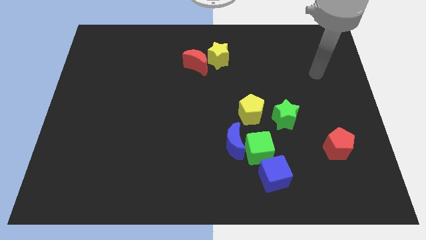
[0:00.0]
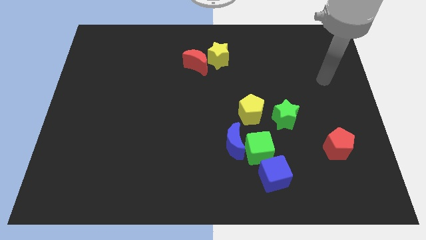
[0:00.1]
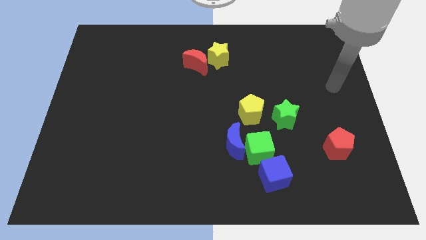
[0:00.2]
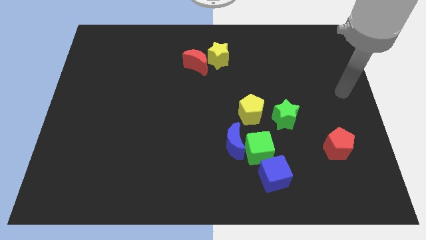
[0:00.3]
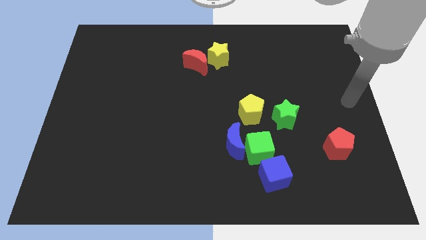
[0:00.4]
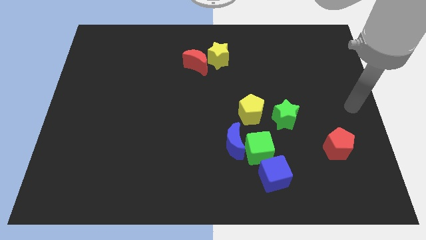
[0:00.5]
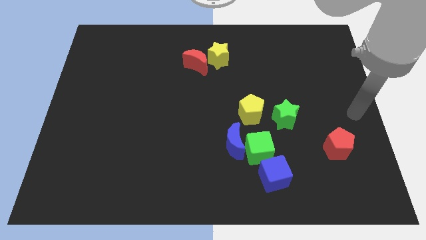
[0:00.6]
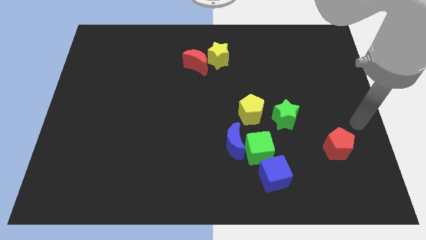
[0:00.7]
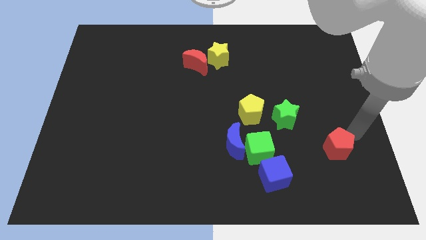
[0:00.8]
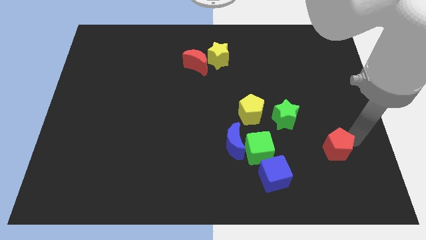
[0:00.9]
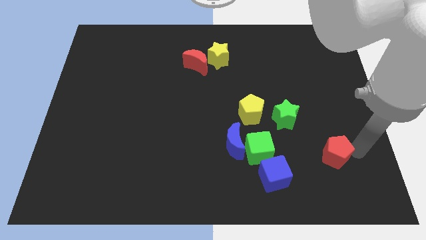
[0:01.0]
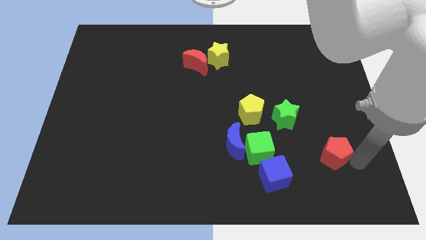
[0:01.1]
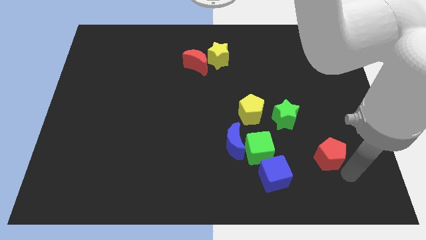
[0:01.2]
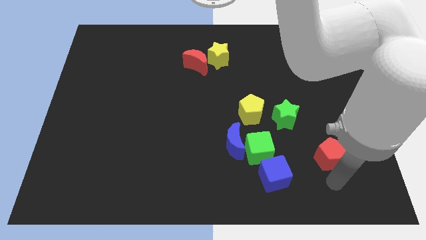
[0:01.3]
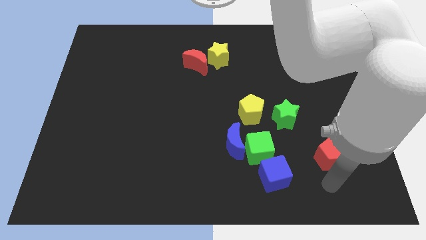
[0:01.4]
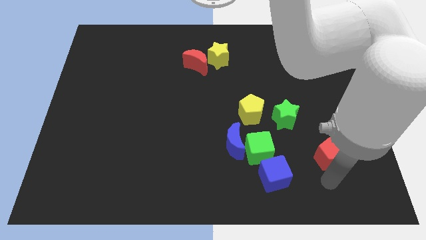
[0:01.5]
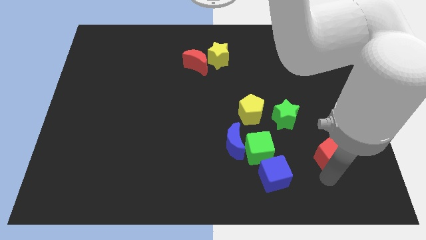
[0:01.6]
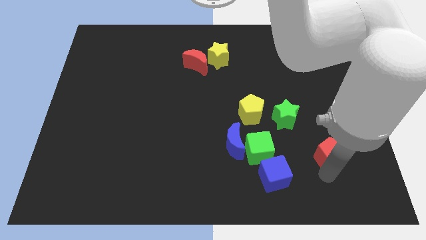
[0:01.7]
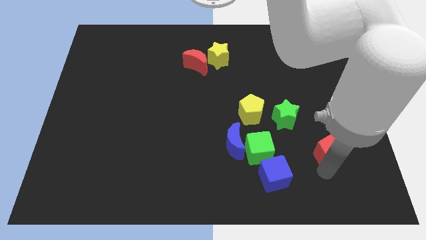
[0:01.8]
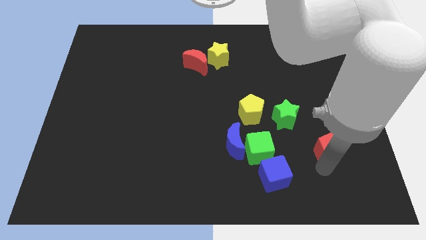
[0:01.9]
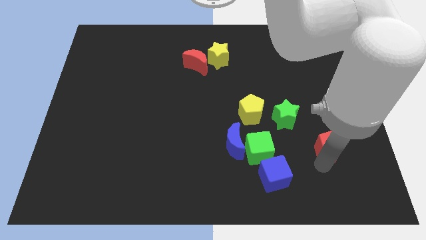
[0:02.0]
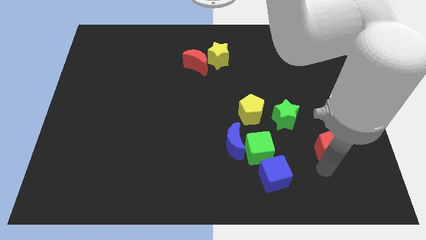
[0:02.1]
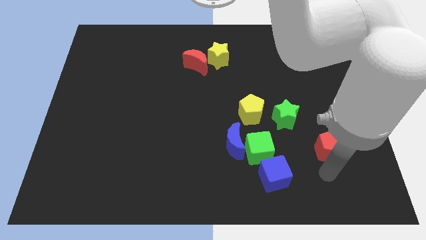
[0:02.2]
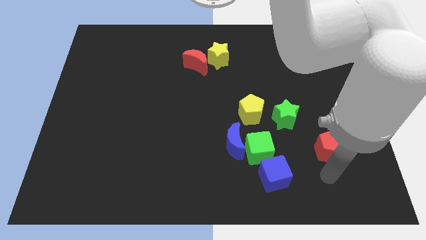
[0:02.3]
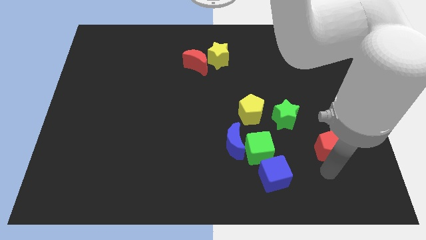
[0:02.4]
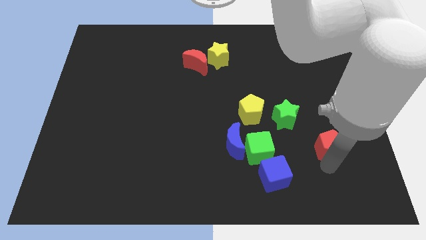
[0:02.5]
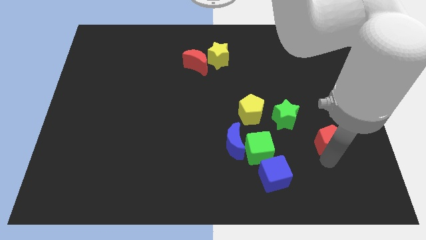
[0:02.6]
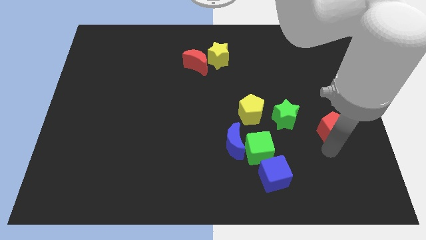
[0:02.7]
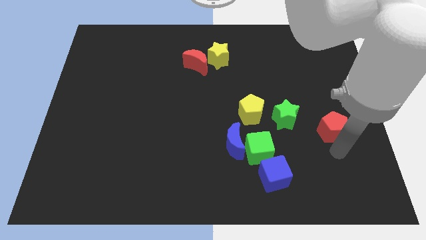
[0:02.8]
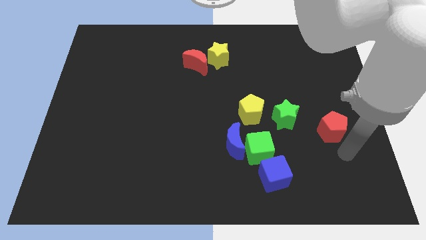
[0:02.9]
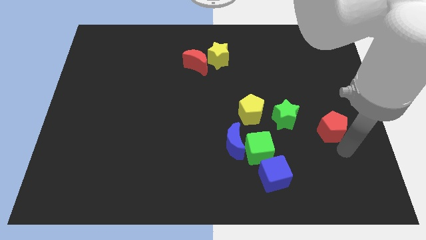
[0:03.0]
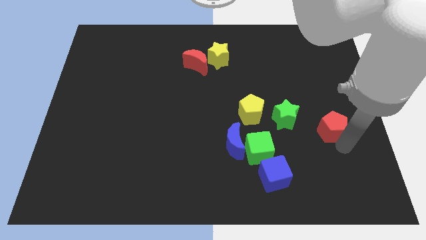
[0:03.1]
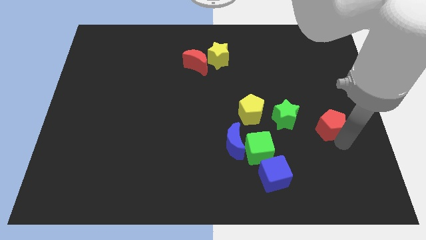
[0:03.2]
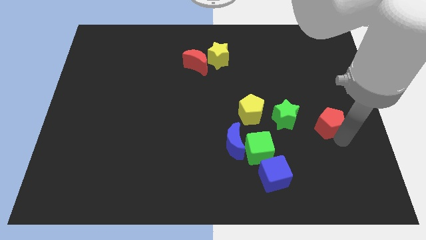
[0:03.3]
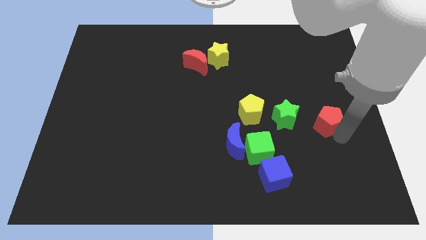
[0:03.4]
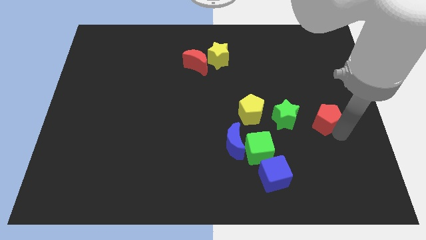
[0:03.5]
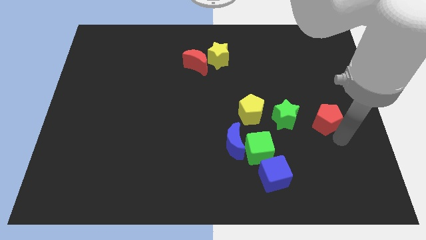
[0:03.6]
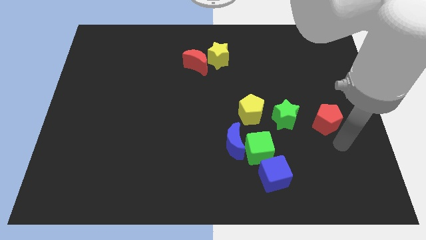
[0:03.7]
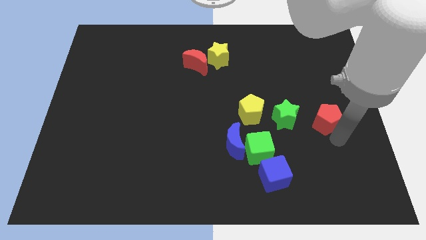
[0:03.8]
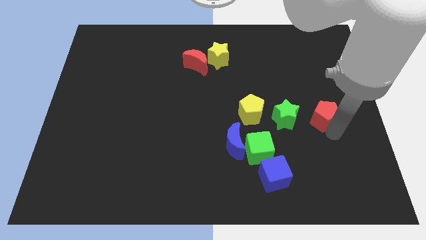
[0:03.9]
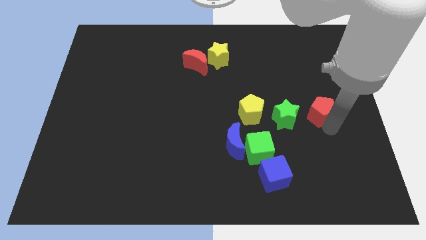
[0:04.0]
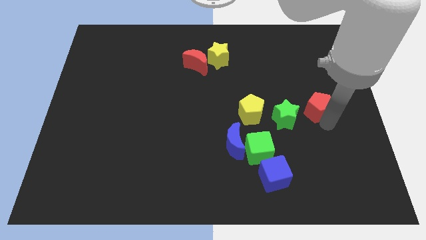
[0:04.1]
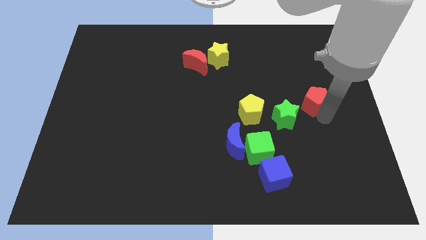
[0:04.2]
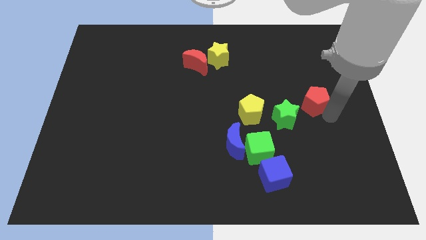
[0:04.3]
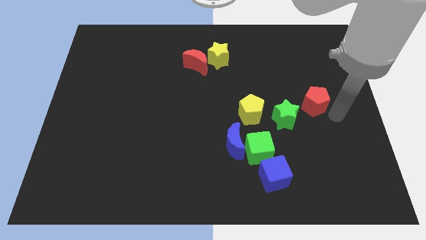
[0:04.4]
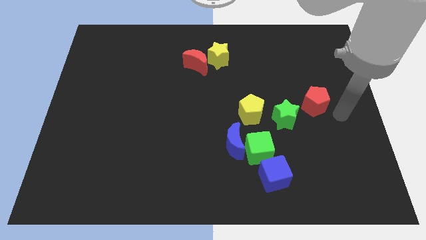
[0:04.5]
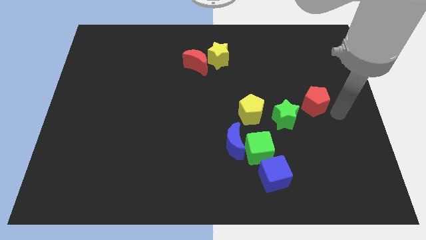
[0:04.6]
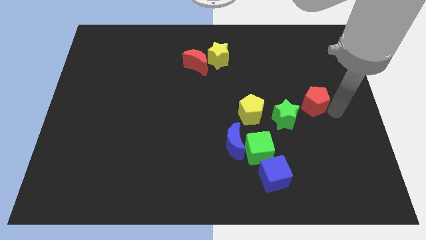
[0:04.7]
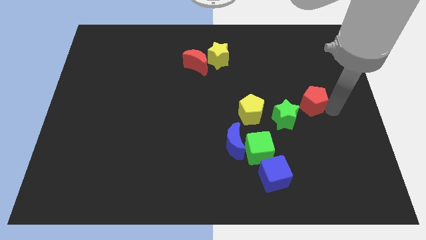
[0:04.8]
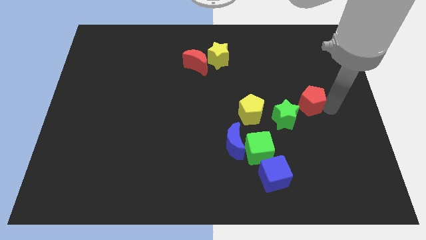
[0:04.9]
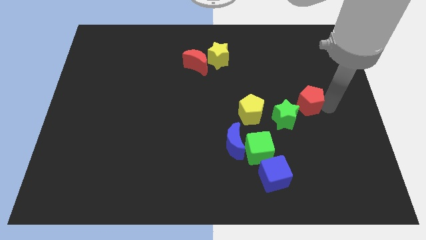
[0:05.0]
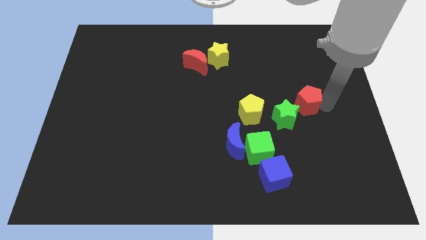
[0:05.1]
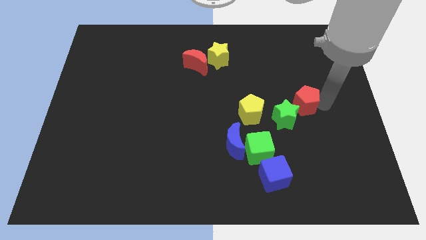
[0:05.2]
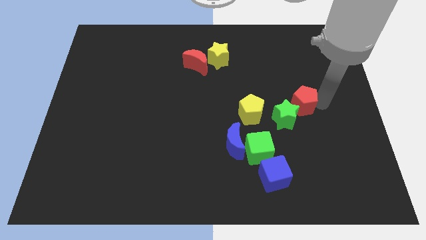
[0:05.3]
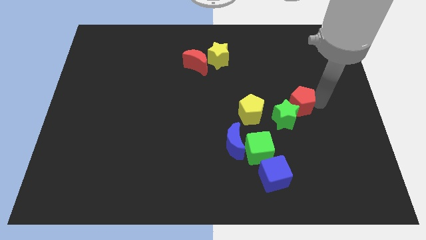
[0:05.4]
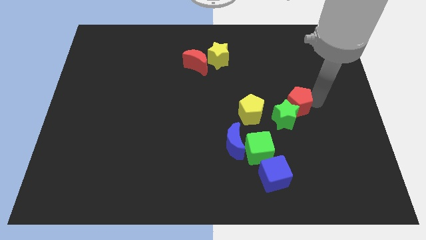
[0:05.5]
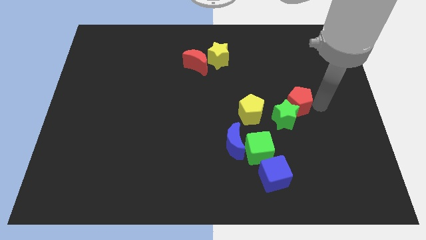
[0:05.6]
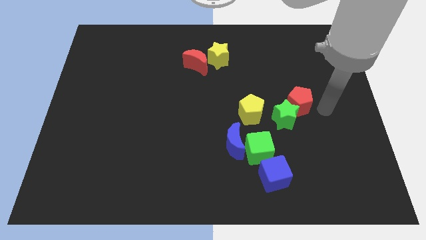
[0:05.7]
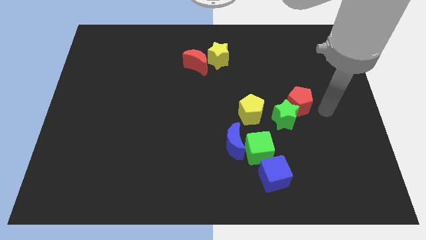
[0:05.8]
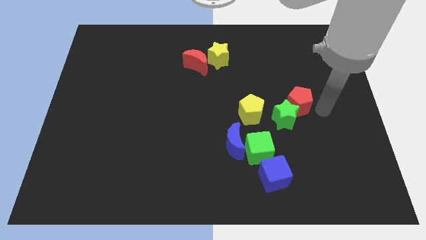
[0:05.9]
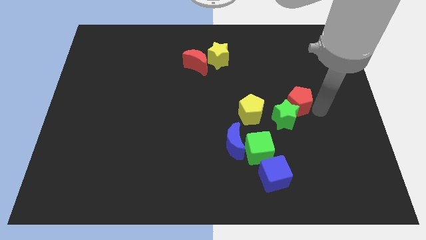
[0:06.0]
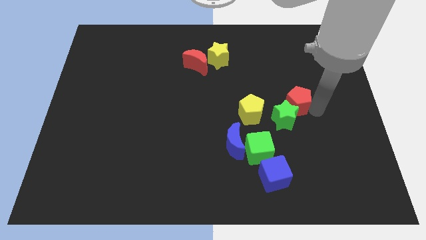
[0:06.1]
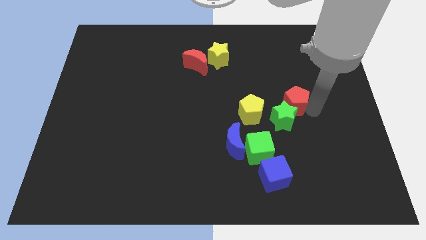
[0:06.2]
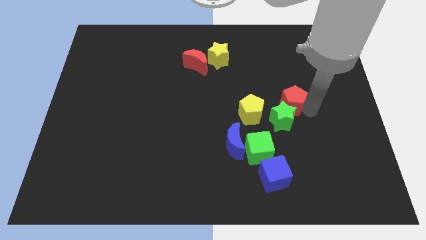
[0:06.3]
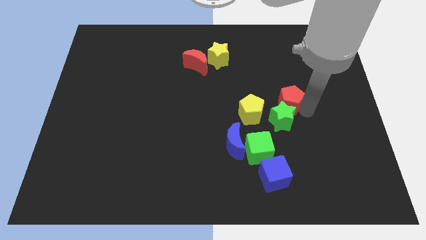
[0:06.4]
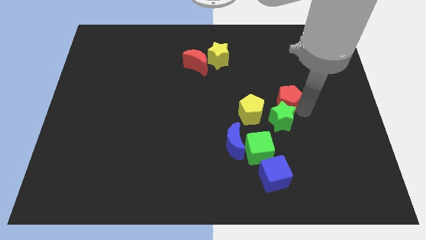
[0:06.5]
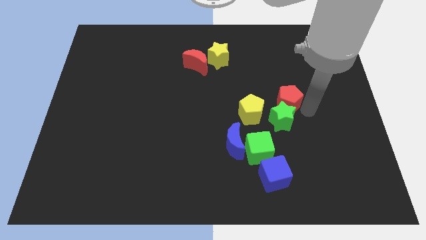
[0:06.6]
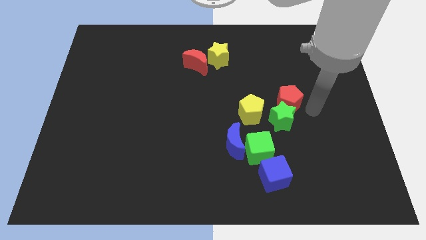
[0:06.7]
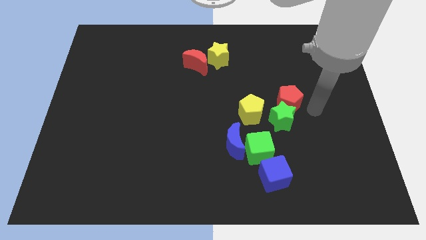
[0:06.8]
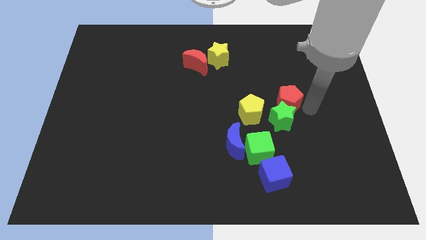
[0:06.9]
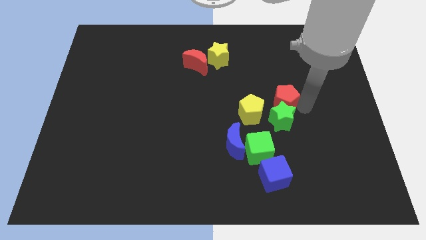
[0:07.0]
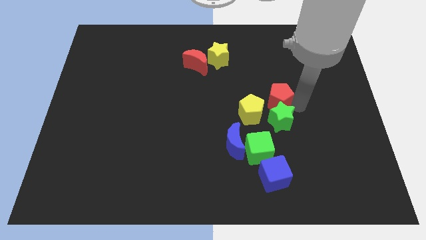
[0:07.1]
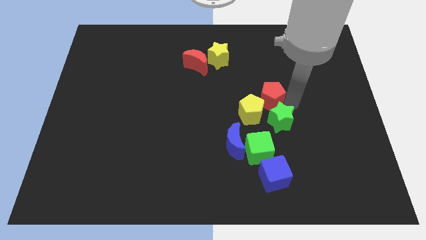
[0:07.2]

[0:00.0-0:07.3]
push the red pentagon above the green cube

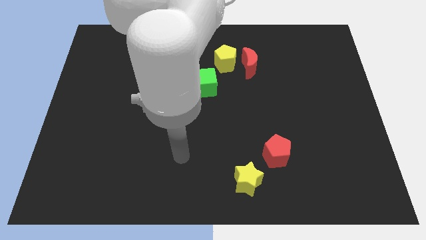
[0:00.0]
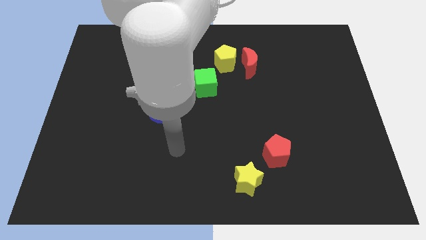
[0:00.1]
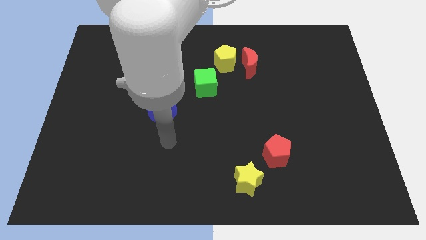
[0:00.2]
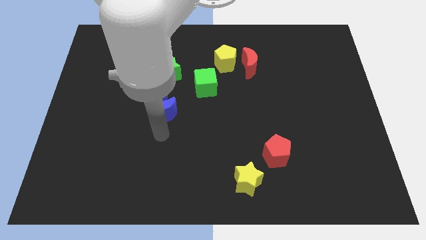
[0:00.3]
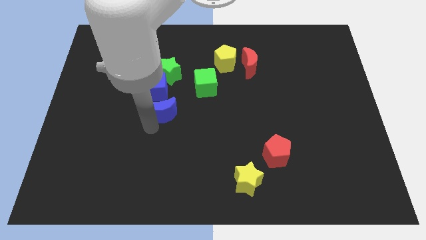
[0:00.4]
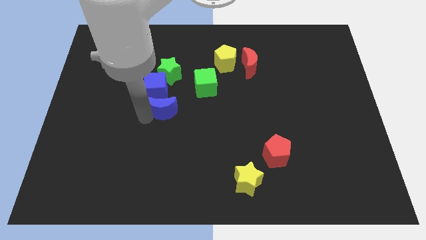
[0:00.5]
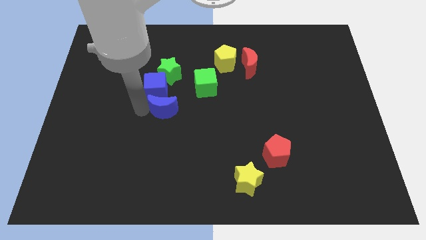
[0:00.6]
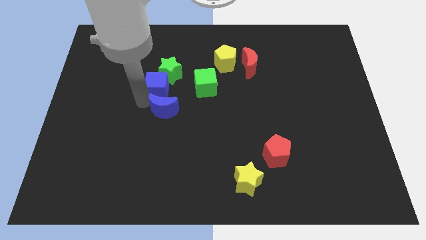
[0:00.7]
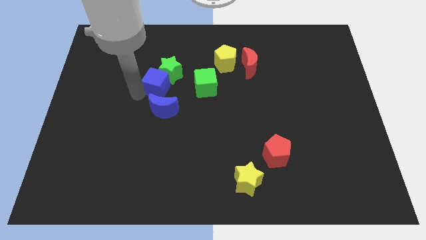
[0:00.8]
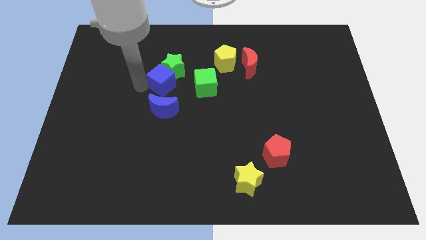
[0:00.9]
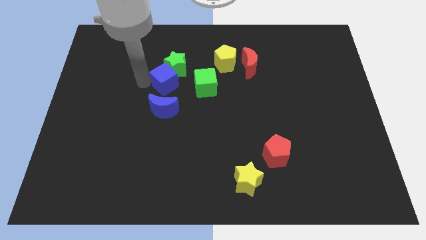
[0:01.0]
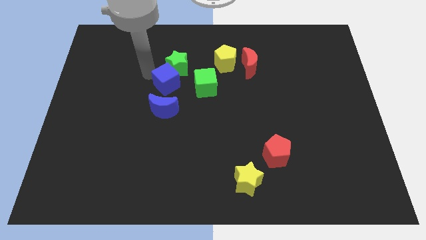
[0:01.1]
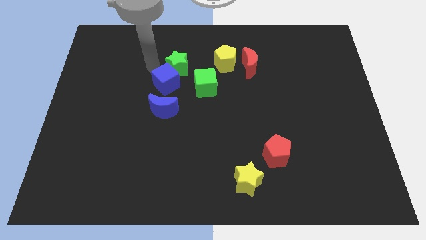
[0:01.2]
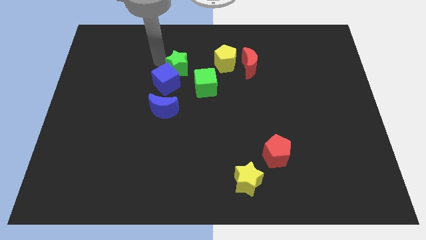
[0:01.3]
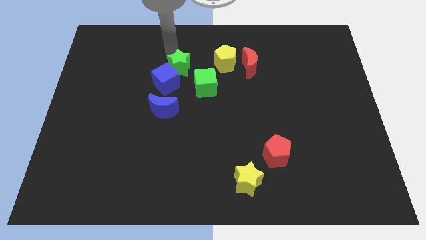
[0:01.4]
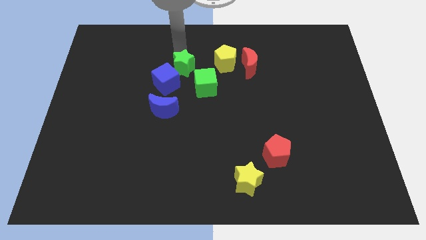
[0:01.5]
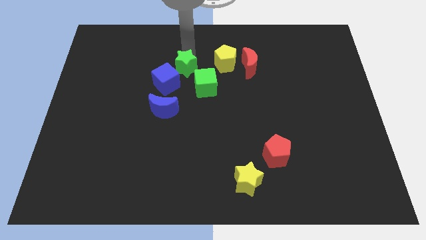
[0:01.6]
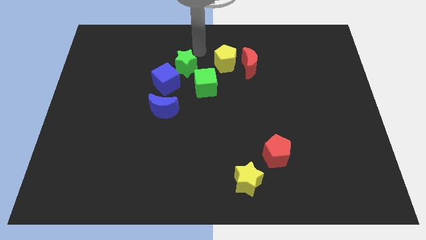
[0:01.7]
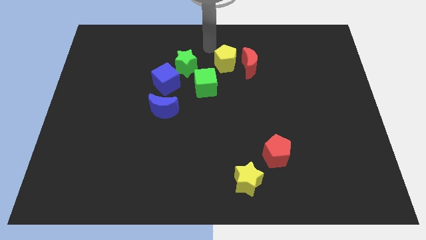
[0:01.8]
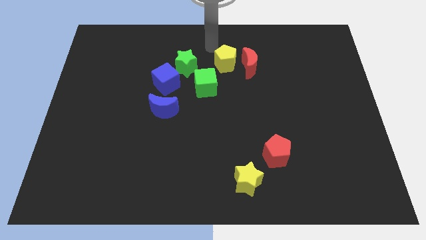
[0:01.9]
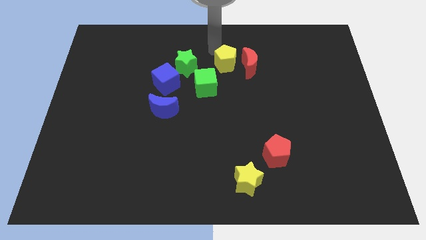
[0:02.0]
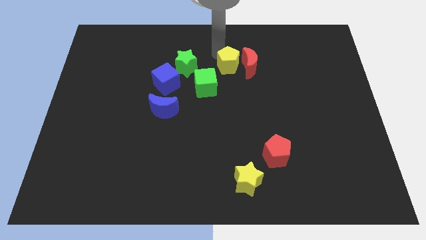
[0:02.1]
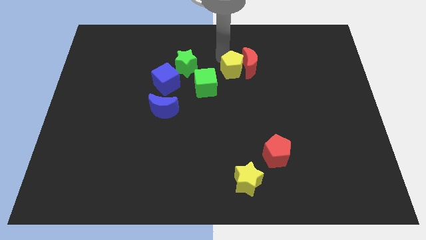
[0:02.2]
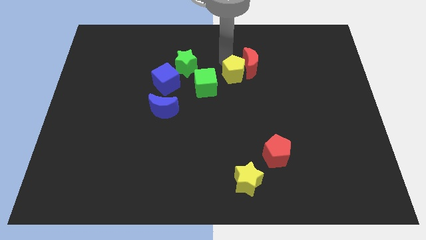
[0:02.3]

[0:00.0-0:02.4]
put the yellow pentagon right of the green cube
